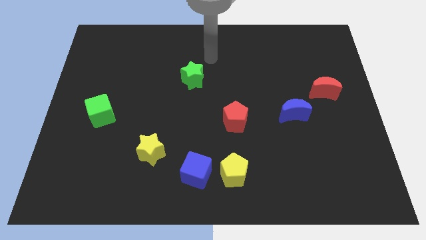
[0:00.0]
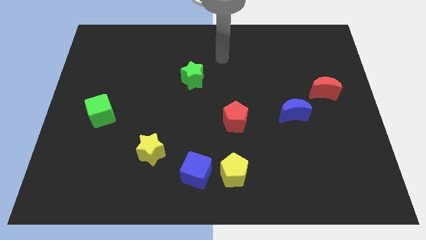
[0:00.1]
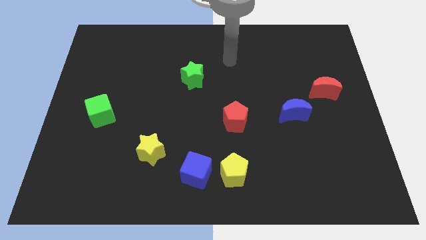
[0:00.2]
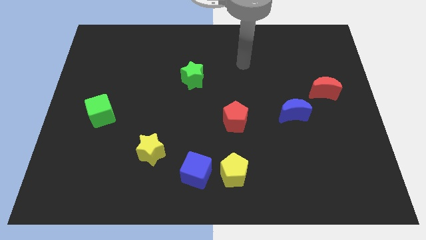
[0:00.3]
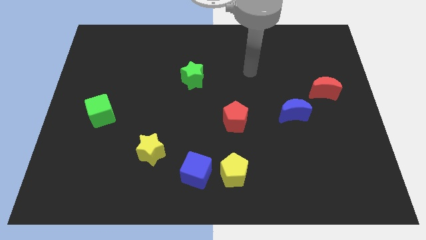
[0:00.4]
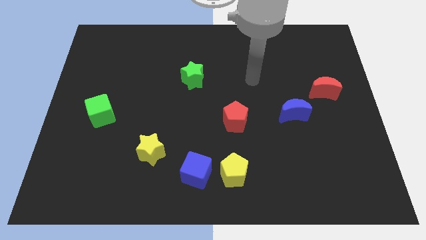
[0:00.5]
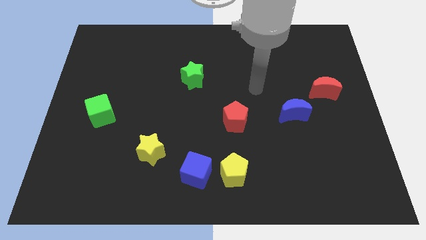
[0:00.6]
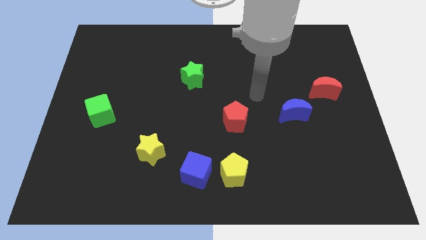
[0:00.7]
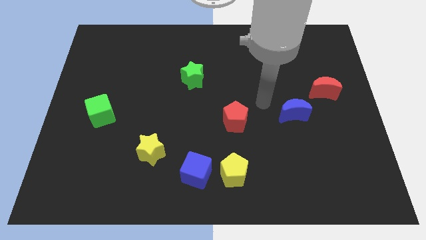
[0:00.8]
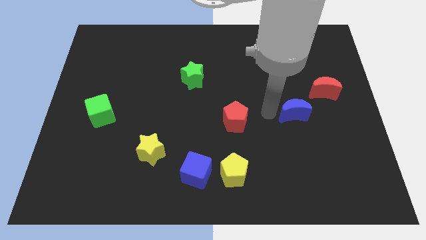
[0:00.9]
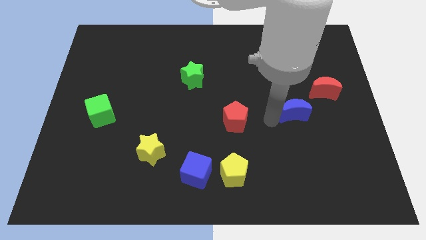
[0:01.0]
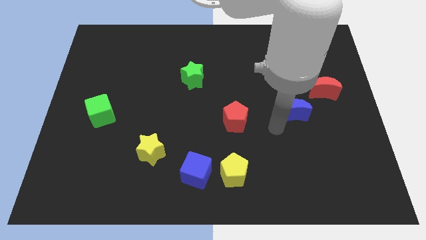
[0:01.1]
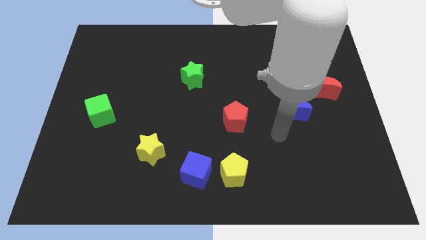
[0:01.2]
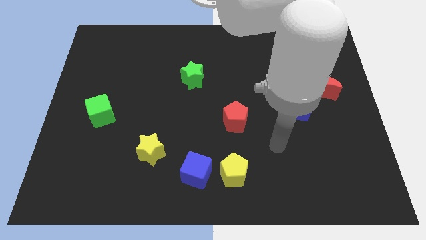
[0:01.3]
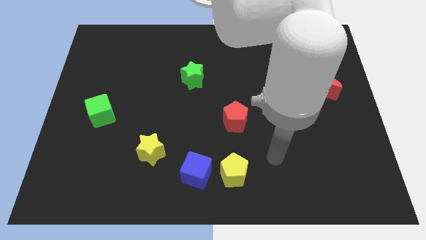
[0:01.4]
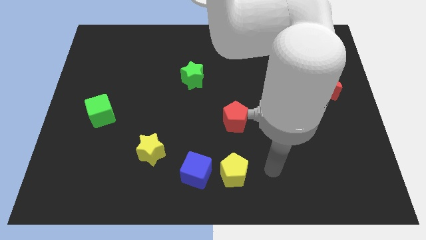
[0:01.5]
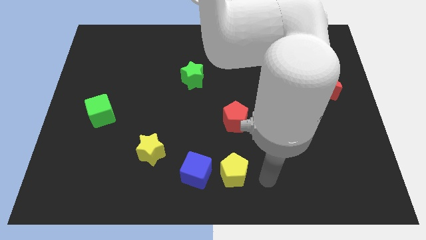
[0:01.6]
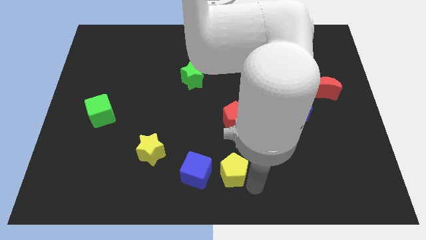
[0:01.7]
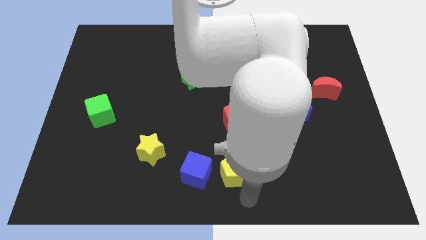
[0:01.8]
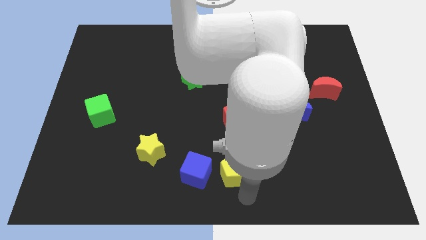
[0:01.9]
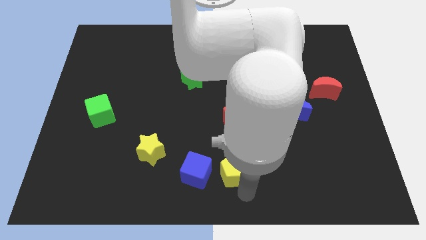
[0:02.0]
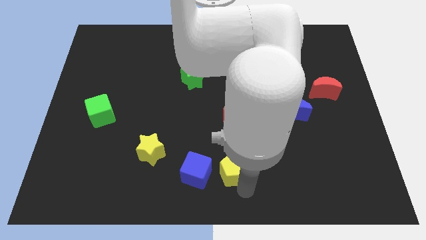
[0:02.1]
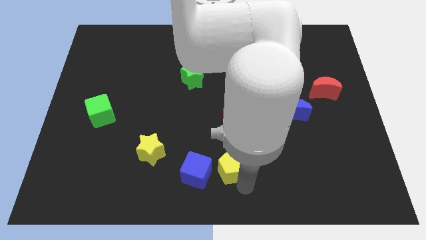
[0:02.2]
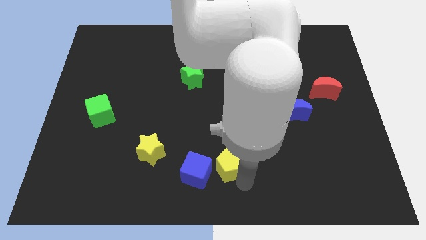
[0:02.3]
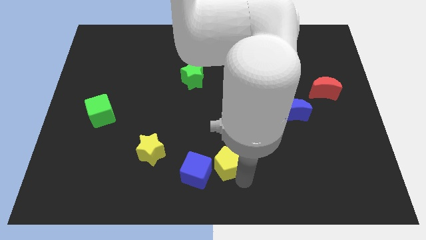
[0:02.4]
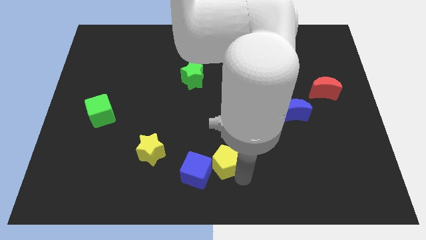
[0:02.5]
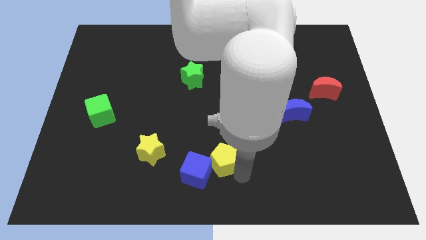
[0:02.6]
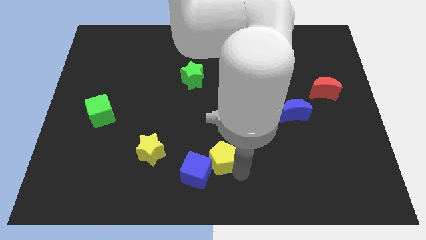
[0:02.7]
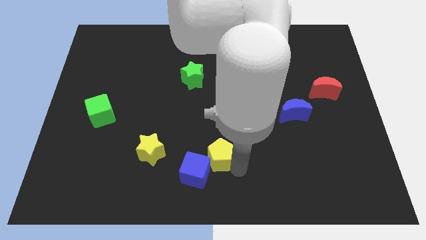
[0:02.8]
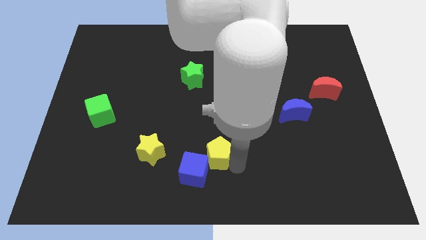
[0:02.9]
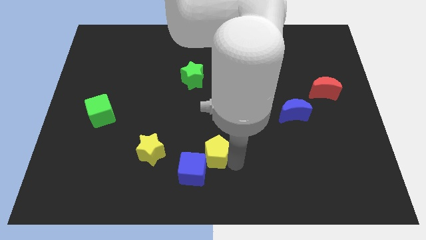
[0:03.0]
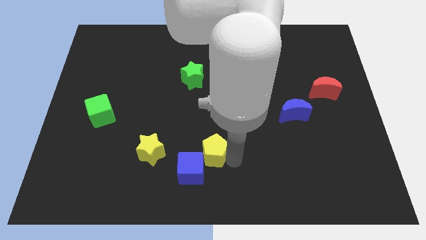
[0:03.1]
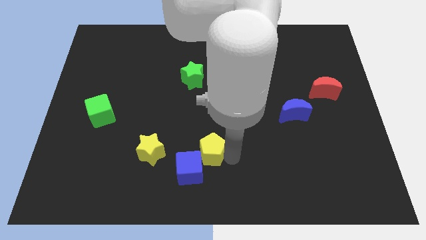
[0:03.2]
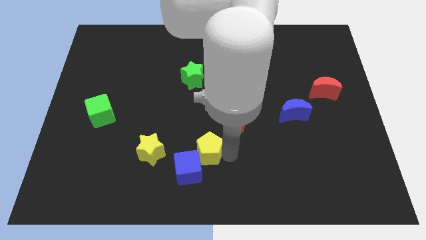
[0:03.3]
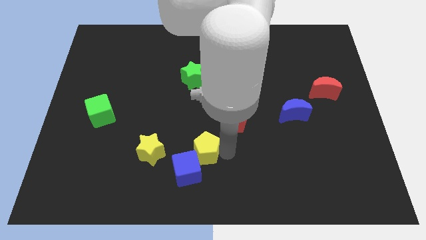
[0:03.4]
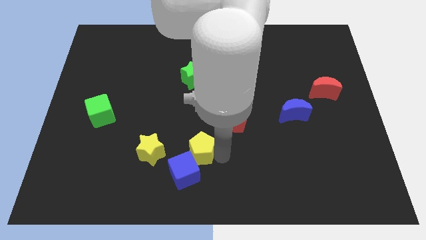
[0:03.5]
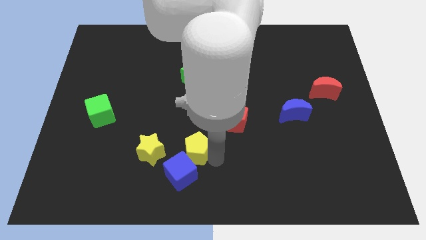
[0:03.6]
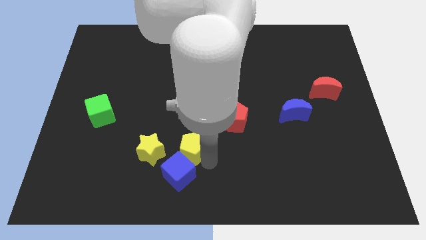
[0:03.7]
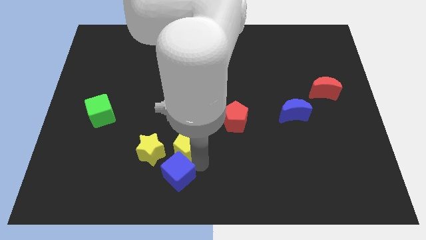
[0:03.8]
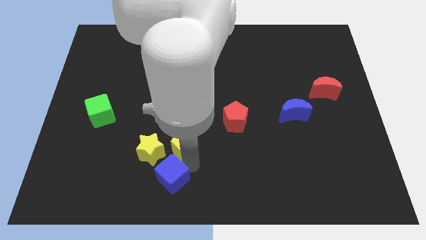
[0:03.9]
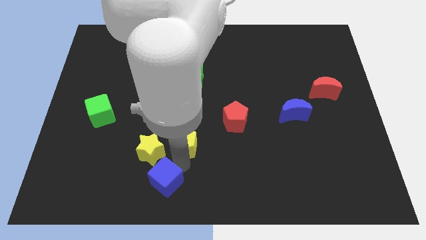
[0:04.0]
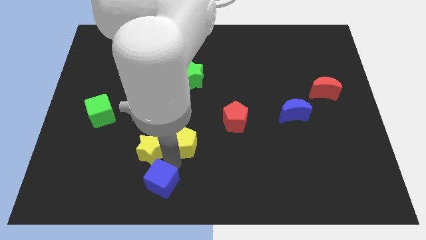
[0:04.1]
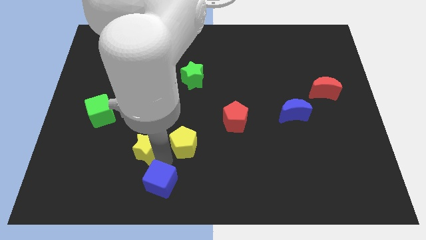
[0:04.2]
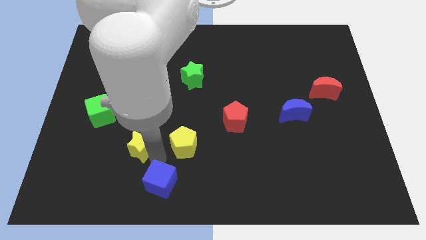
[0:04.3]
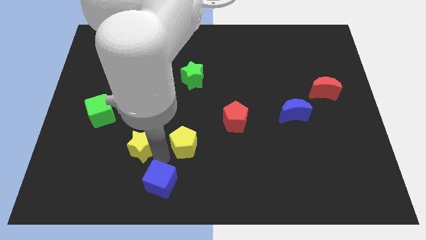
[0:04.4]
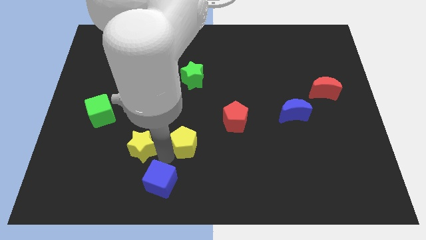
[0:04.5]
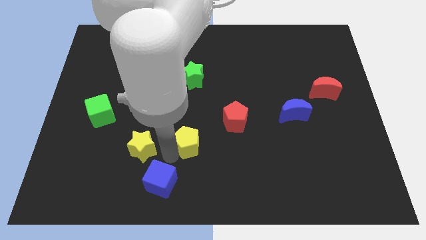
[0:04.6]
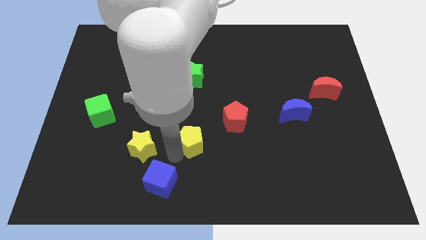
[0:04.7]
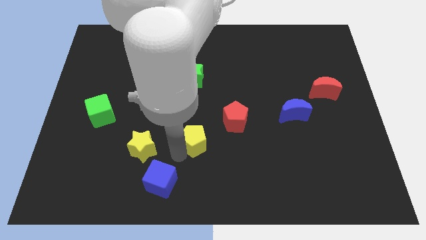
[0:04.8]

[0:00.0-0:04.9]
slide the yellow pentagon to the center

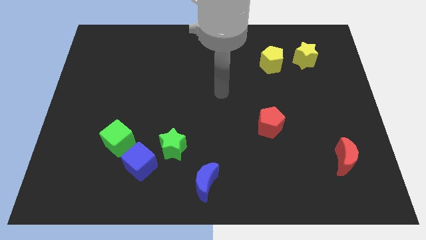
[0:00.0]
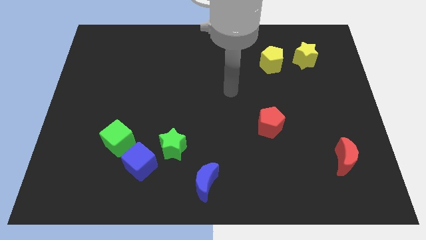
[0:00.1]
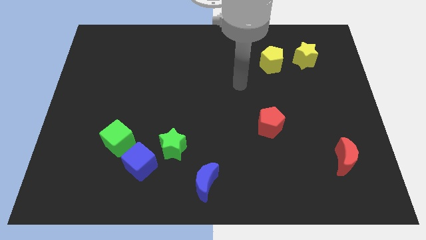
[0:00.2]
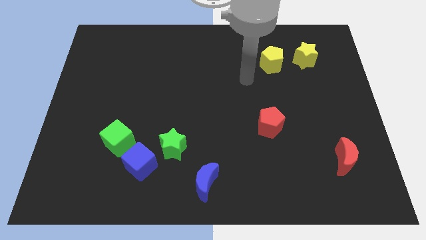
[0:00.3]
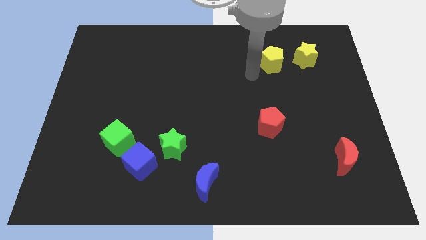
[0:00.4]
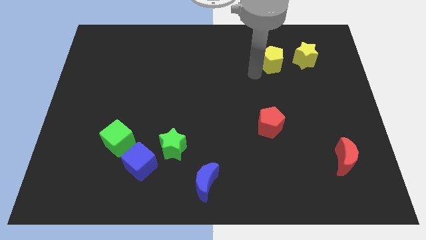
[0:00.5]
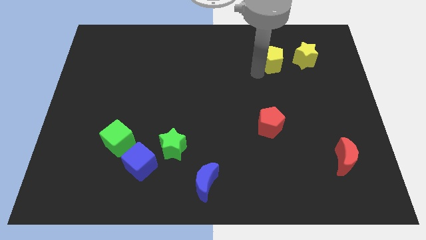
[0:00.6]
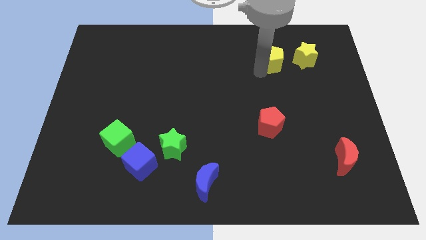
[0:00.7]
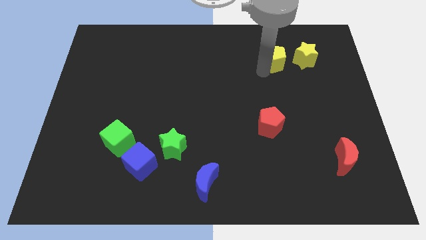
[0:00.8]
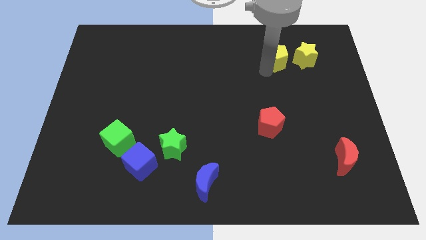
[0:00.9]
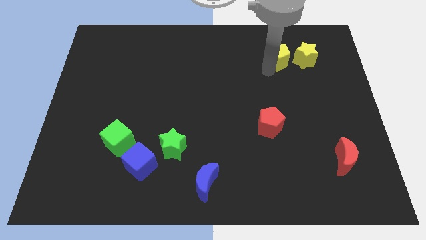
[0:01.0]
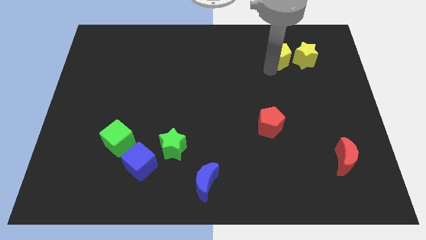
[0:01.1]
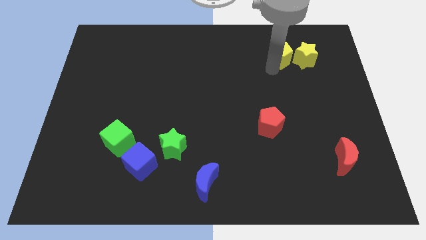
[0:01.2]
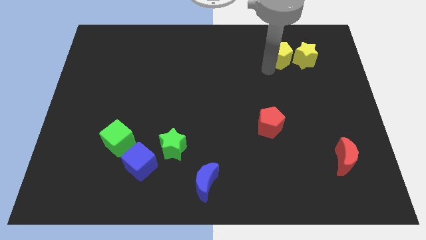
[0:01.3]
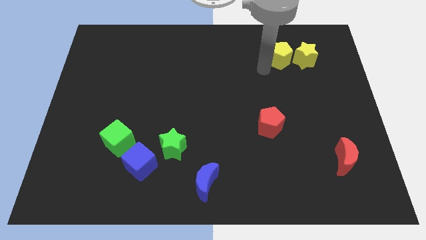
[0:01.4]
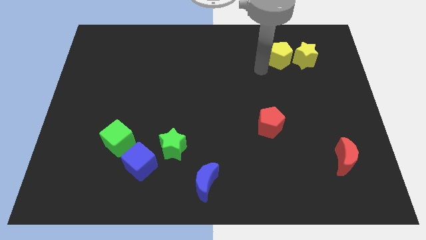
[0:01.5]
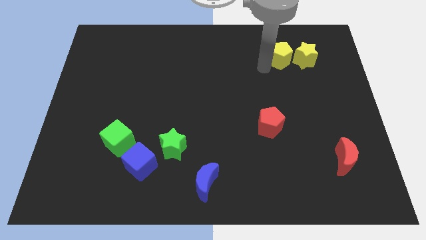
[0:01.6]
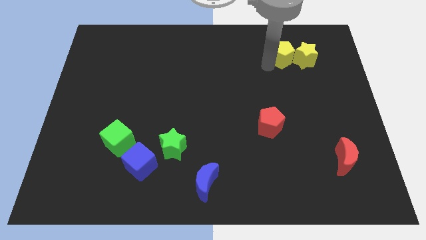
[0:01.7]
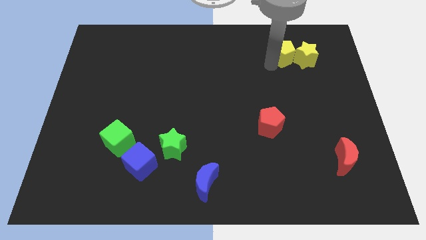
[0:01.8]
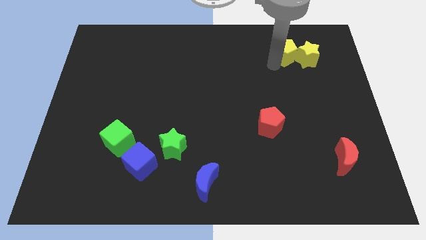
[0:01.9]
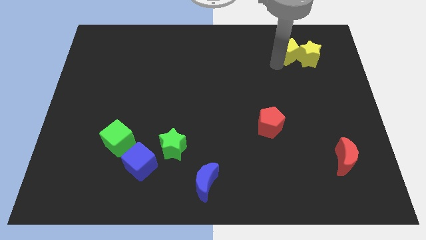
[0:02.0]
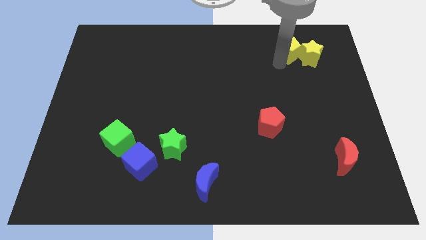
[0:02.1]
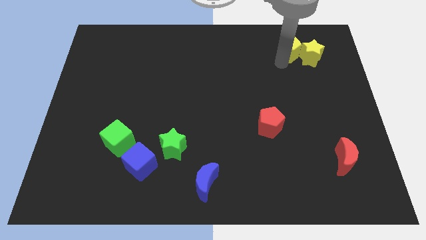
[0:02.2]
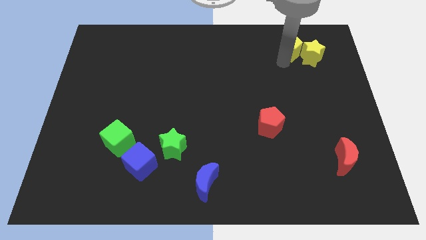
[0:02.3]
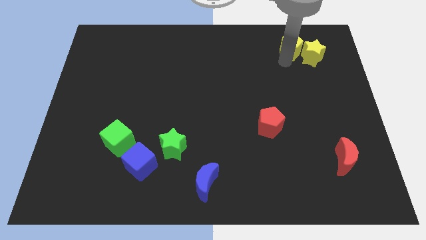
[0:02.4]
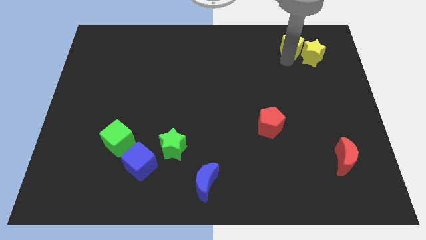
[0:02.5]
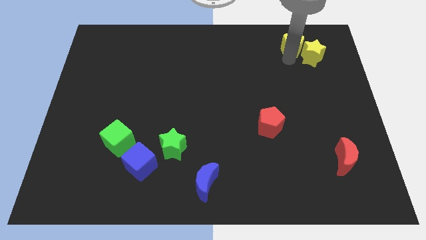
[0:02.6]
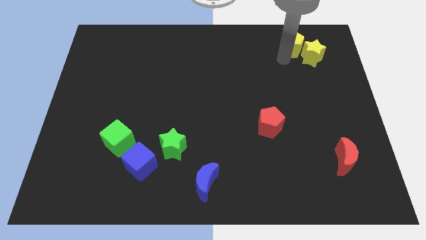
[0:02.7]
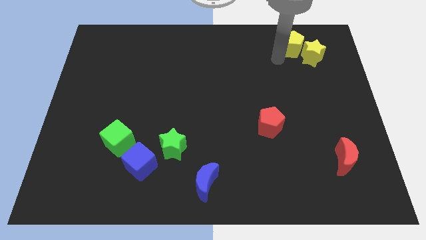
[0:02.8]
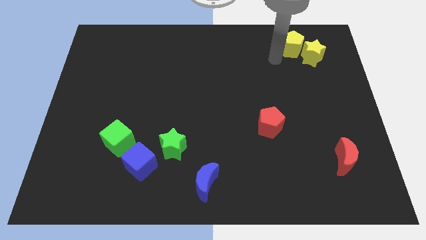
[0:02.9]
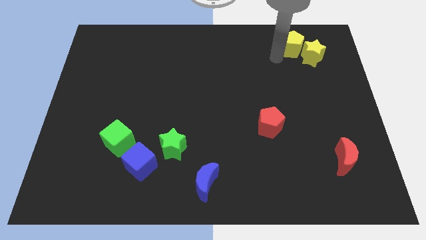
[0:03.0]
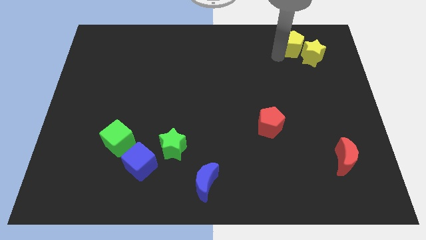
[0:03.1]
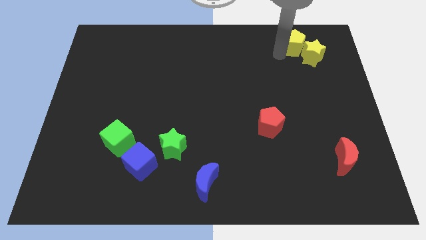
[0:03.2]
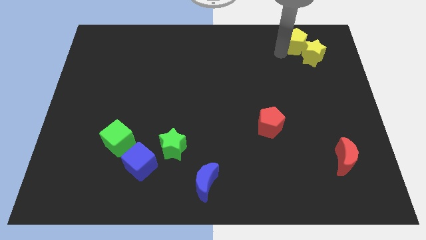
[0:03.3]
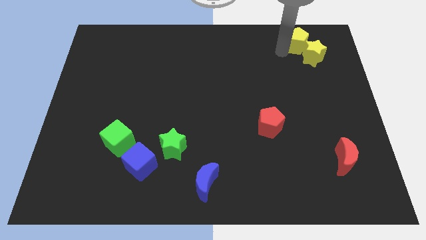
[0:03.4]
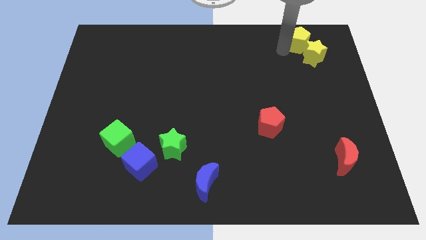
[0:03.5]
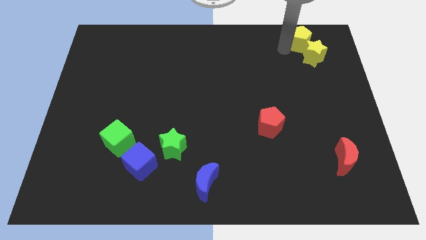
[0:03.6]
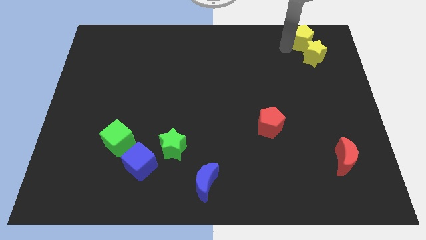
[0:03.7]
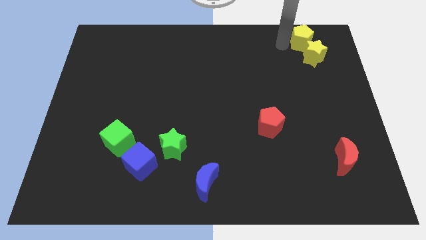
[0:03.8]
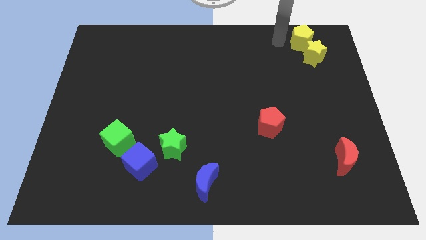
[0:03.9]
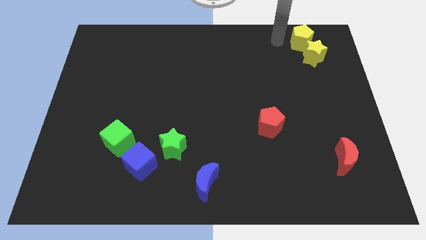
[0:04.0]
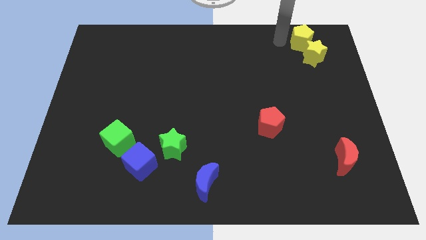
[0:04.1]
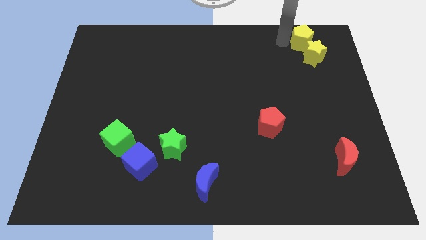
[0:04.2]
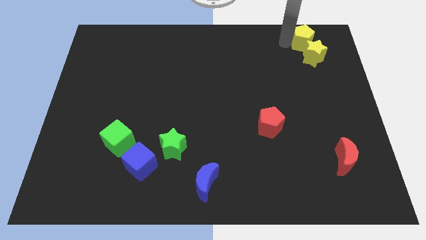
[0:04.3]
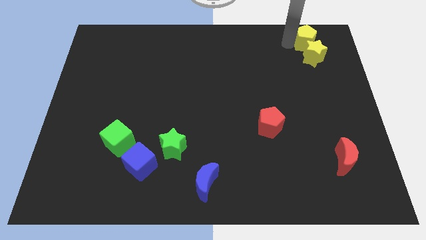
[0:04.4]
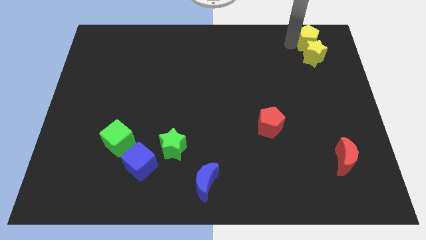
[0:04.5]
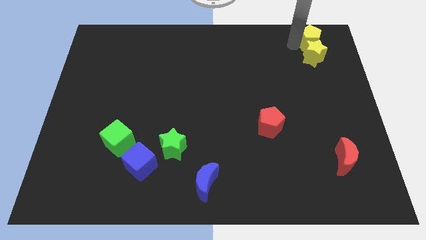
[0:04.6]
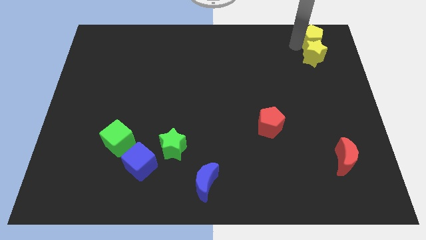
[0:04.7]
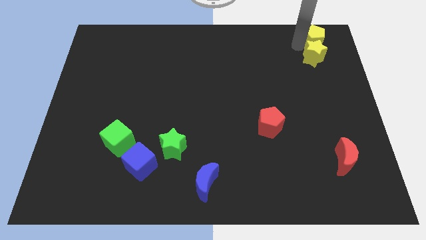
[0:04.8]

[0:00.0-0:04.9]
move the yellow pentagon to the top right corner
